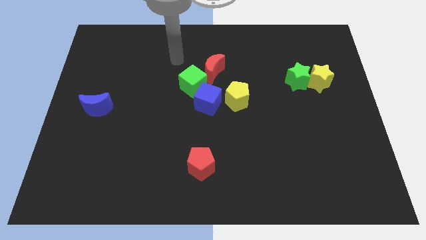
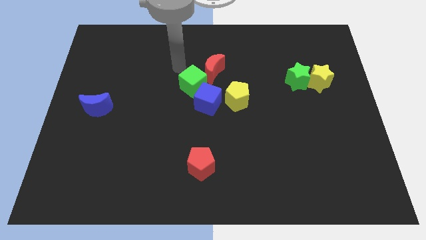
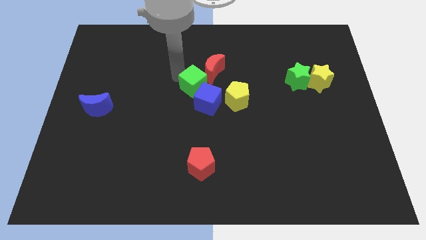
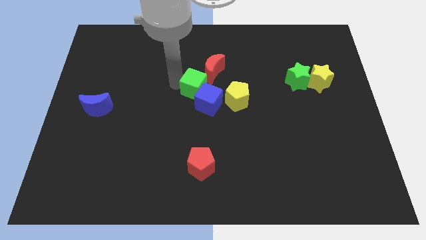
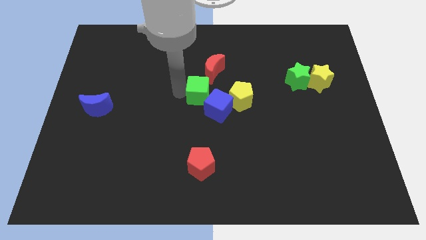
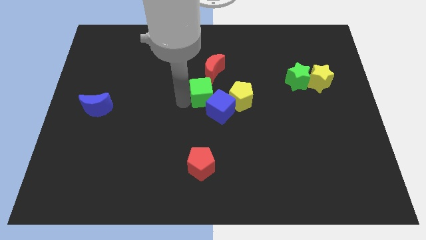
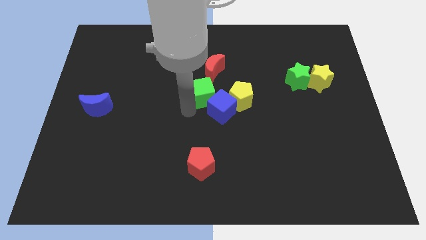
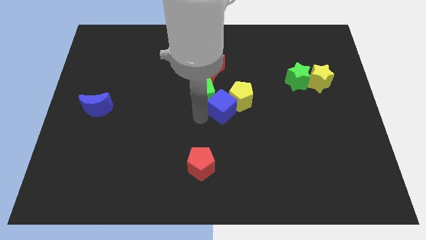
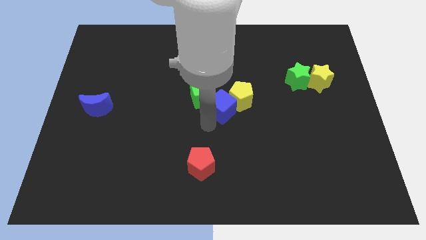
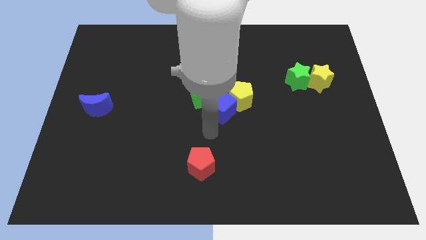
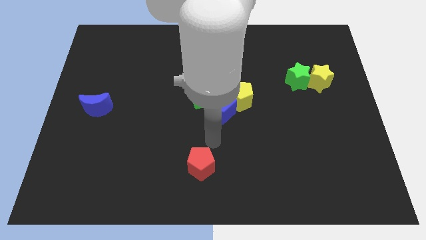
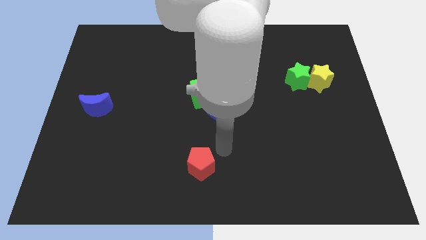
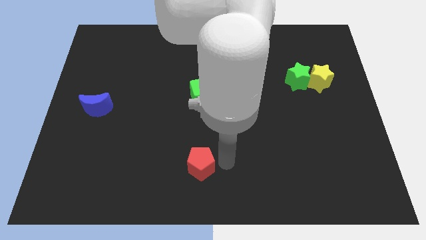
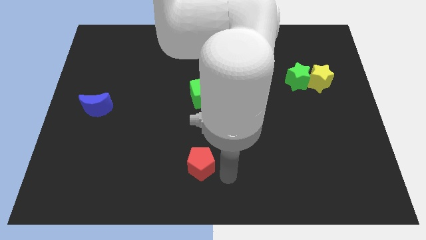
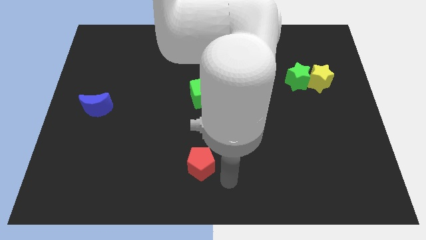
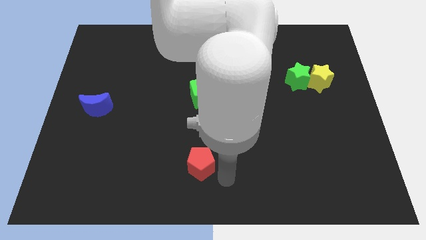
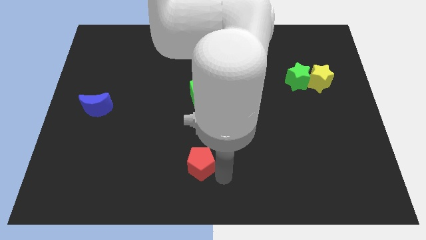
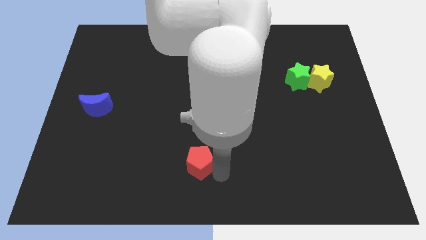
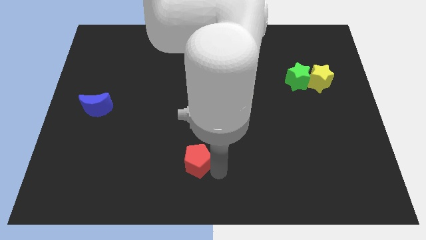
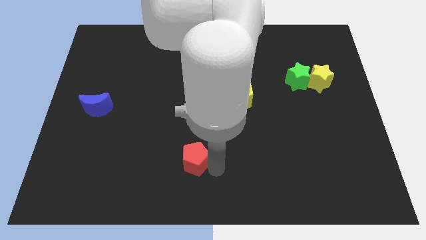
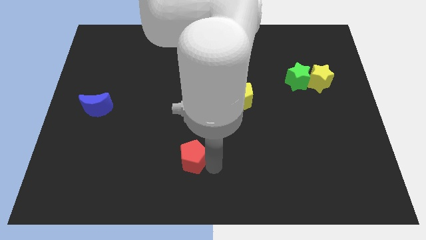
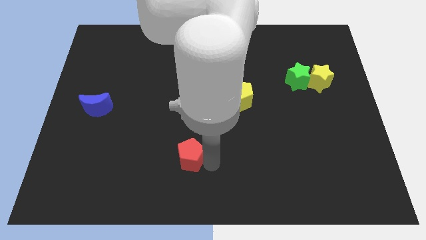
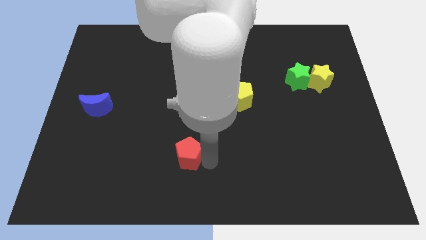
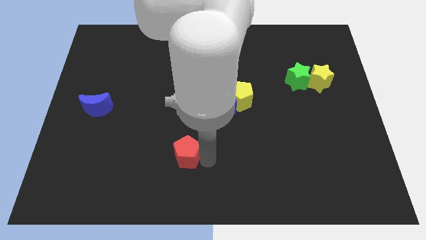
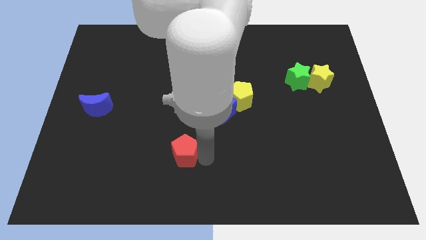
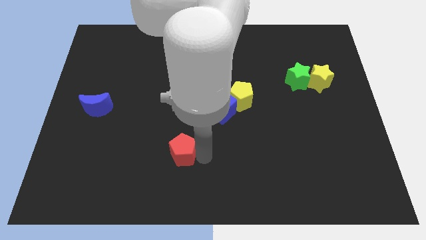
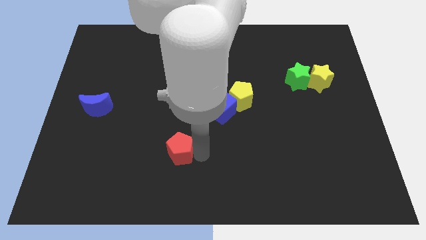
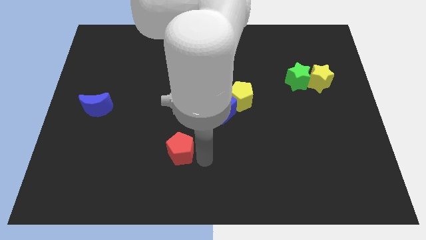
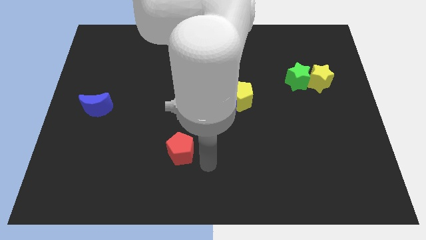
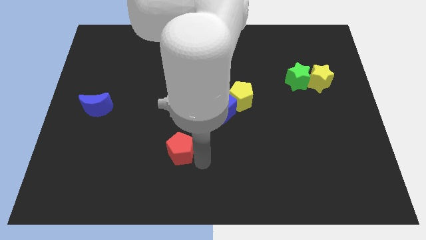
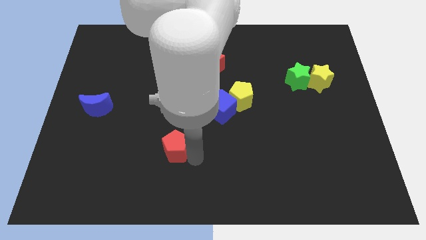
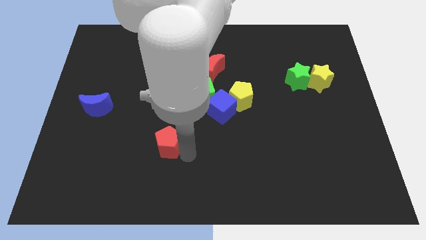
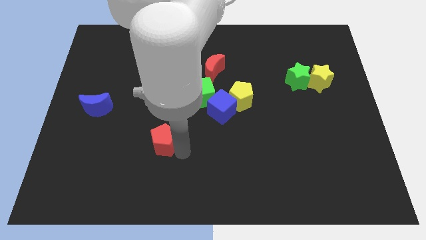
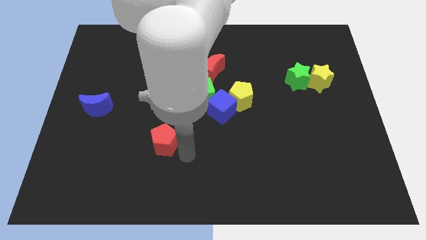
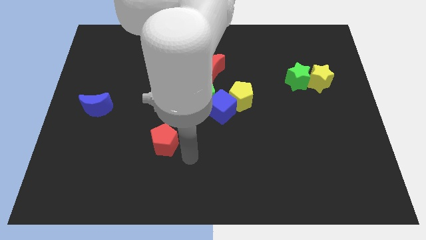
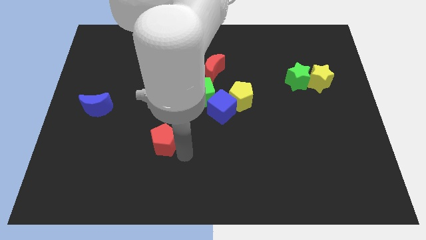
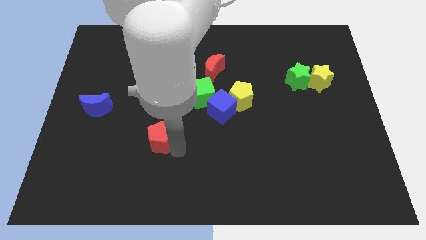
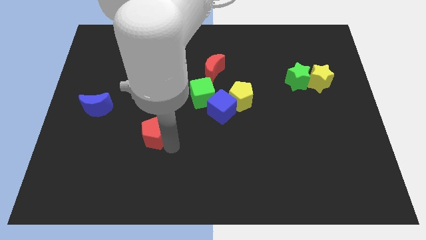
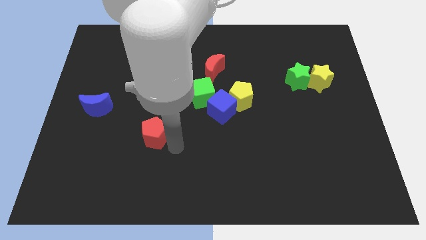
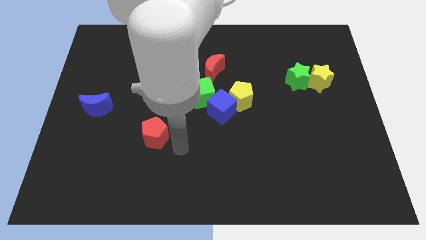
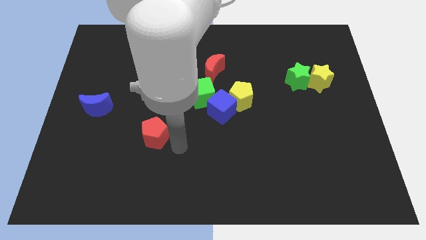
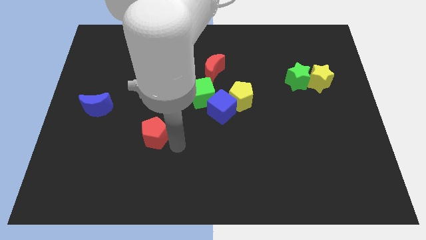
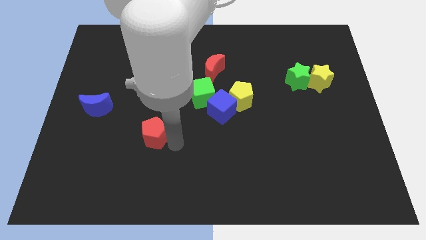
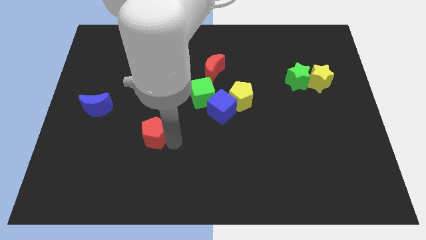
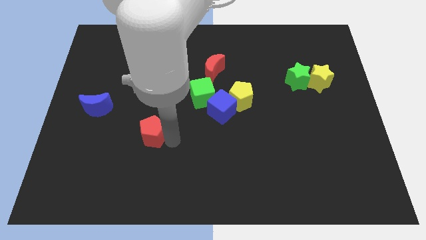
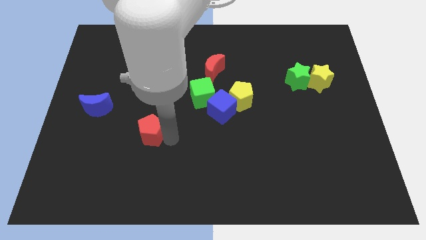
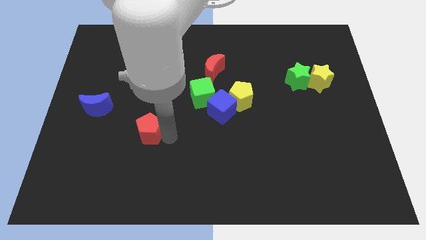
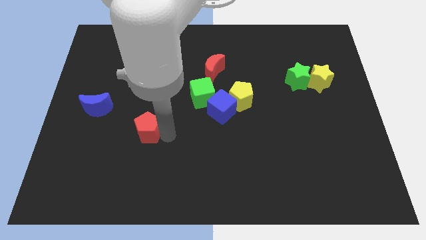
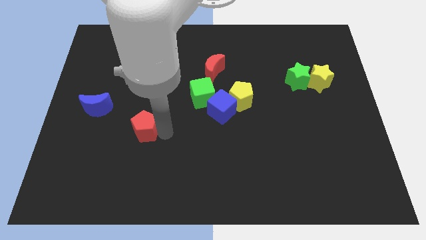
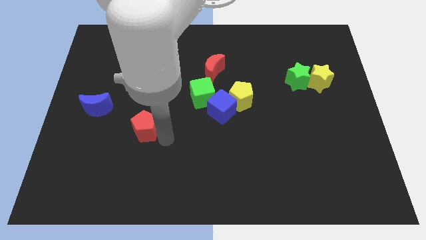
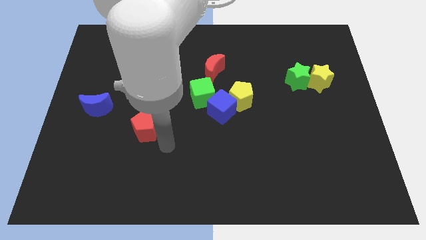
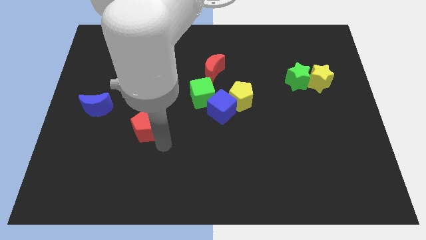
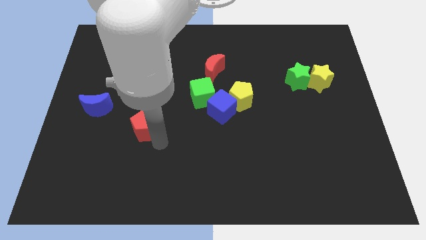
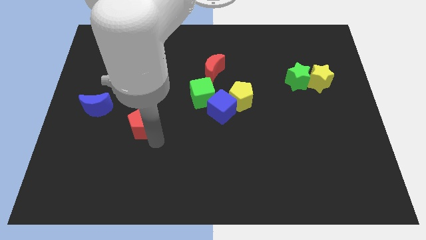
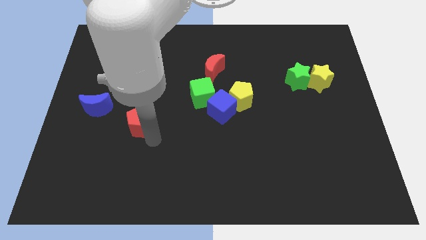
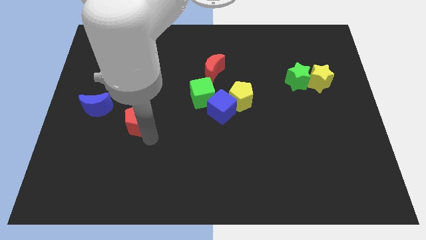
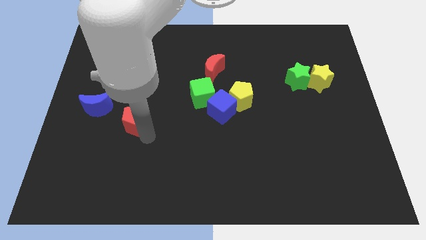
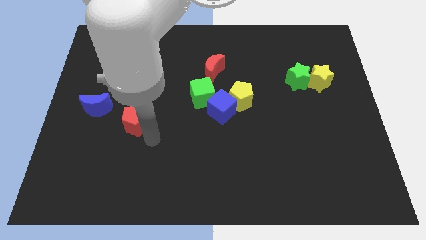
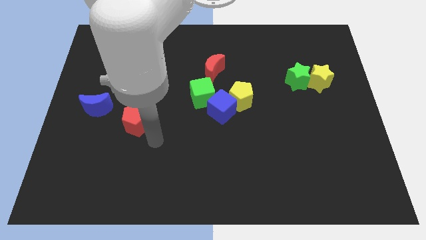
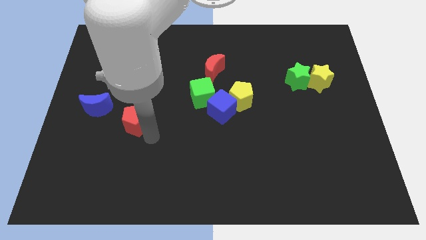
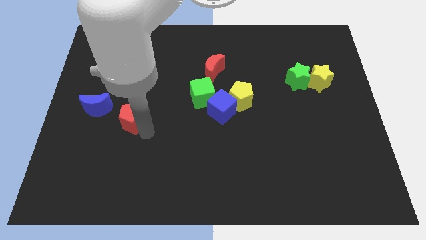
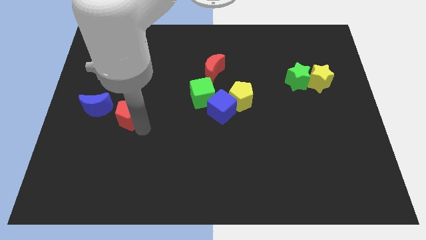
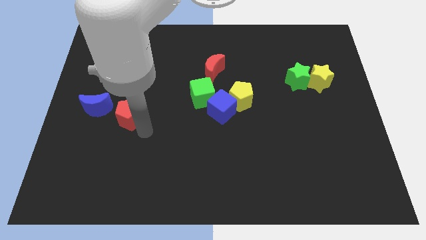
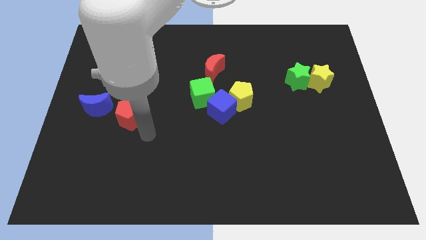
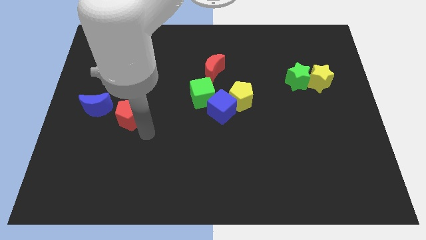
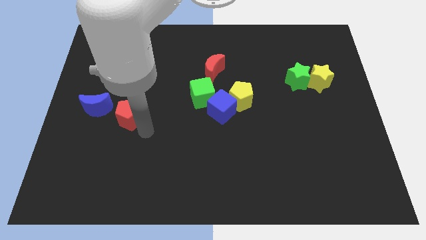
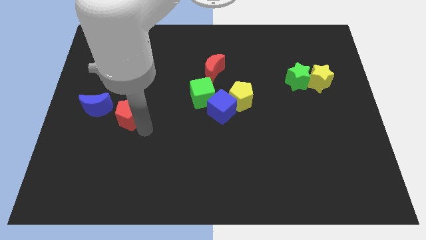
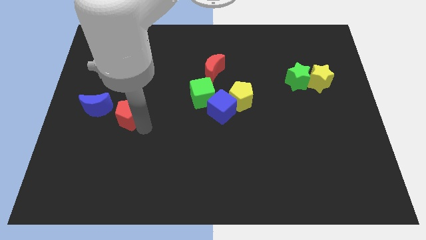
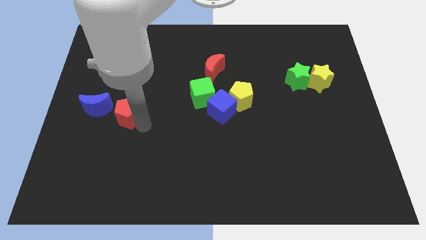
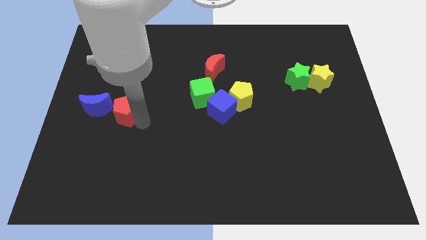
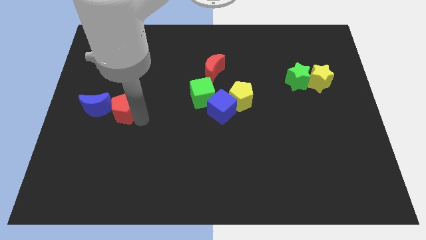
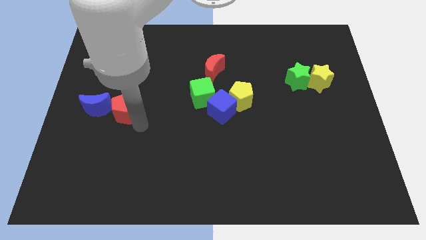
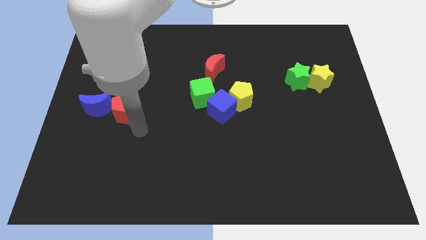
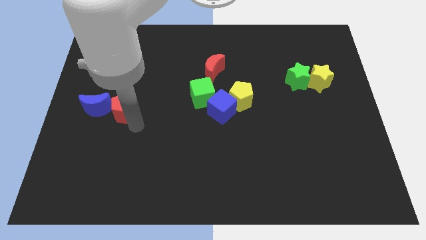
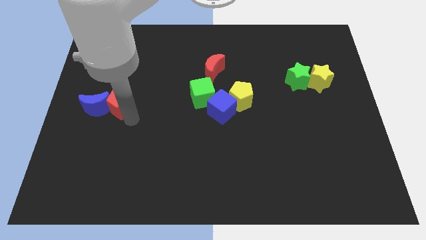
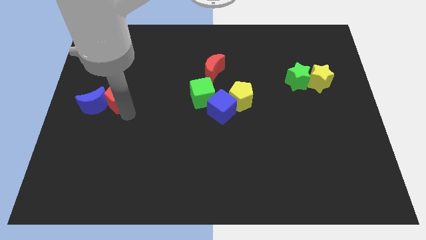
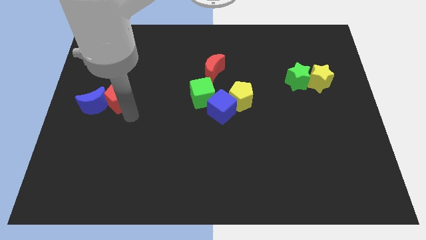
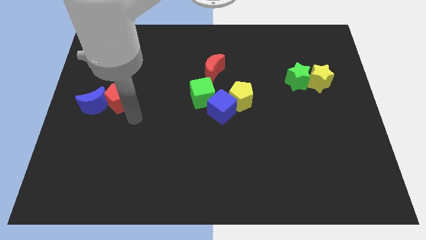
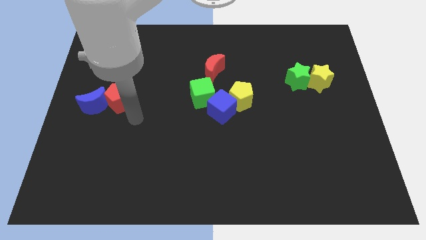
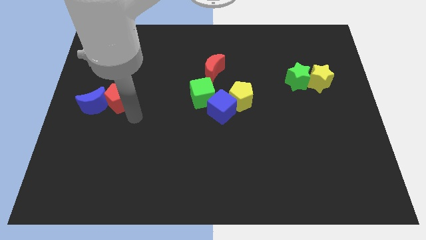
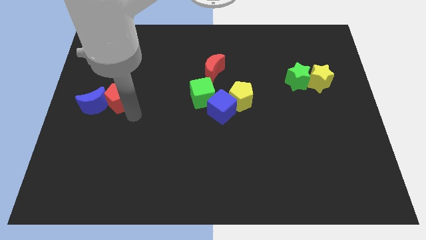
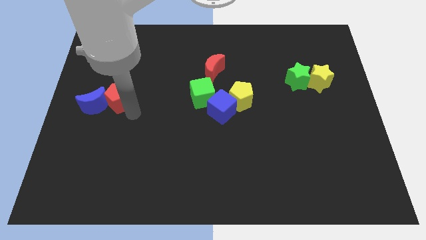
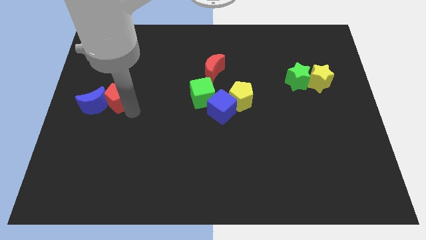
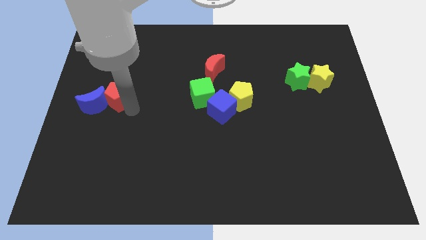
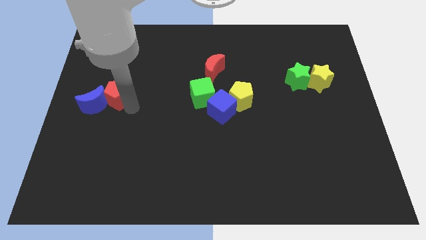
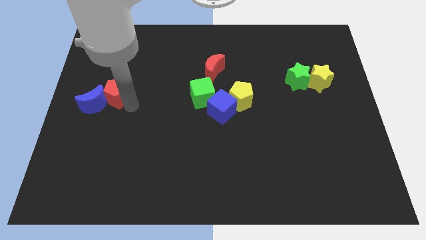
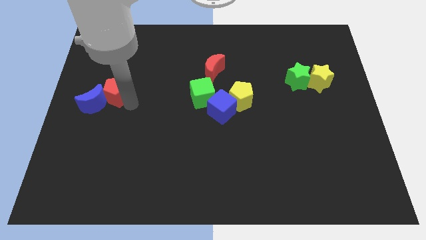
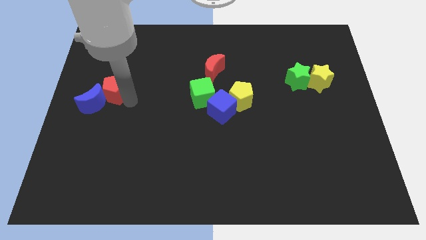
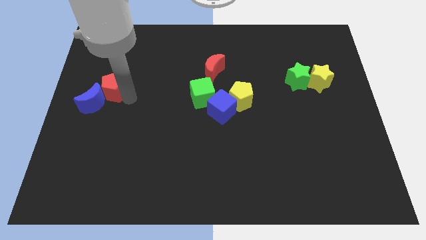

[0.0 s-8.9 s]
move the red pentagon to the top of the blue moon
